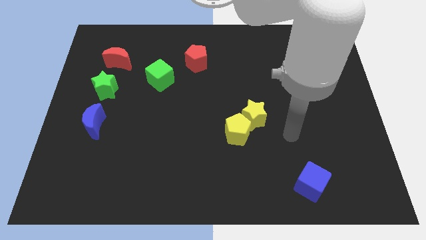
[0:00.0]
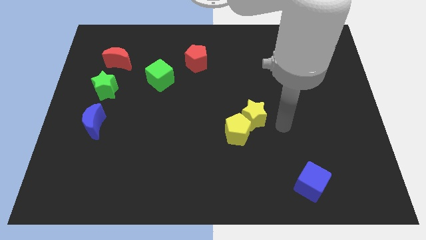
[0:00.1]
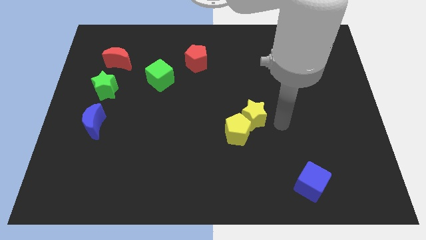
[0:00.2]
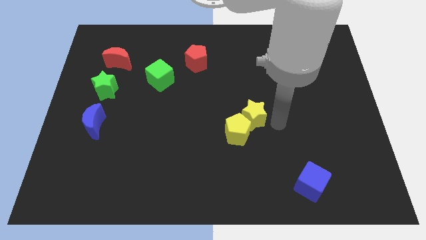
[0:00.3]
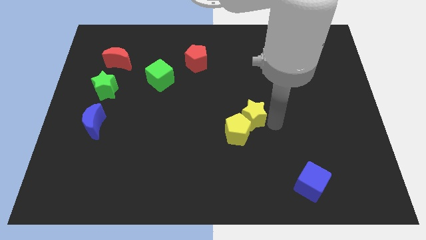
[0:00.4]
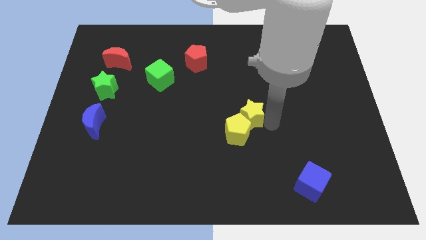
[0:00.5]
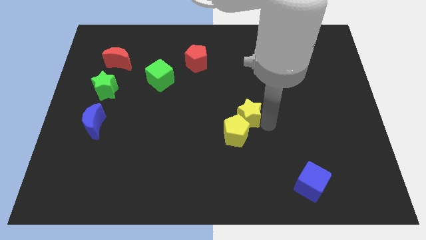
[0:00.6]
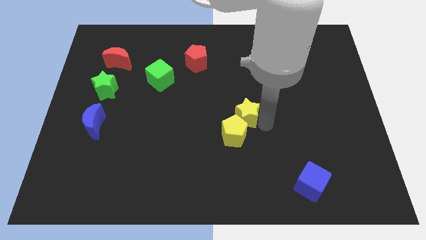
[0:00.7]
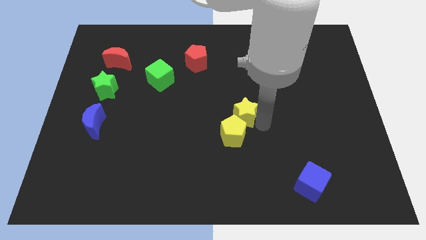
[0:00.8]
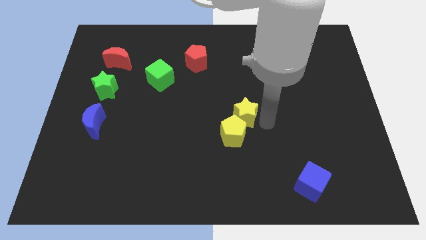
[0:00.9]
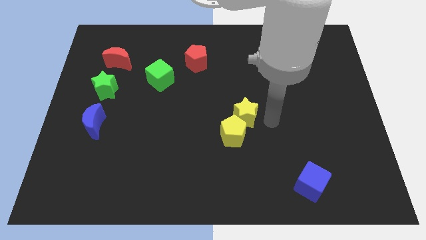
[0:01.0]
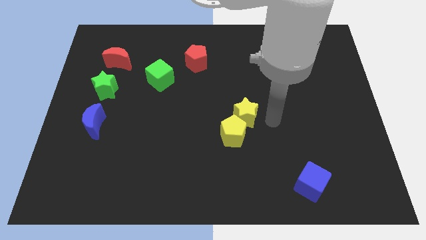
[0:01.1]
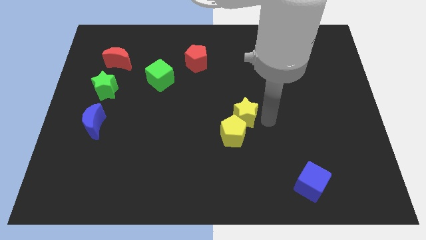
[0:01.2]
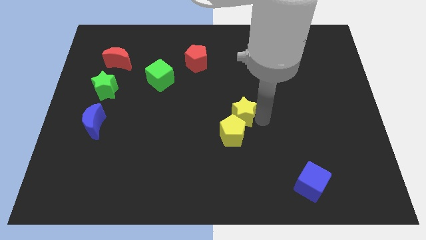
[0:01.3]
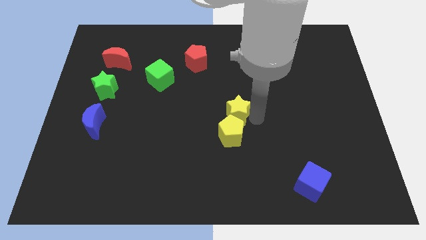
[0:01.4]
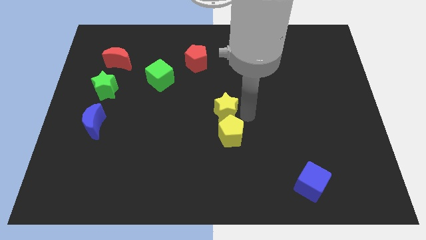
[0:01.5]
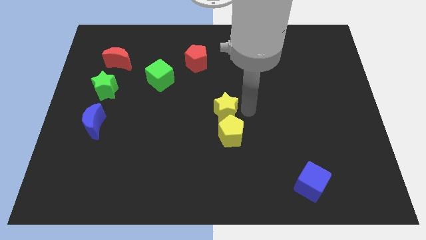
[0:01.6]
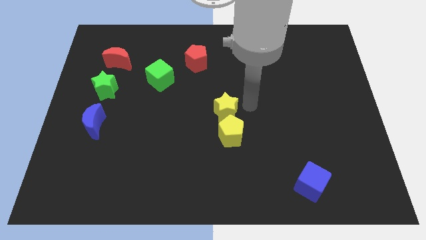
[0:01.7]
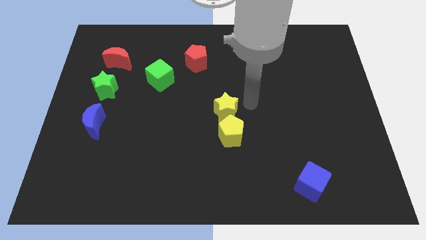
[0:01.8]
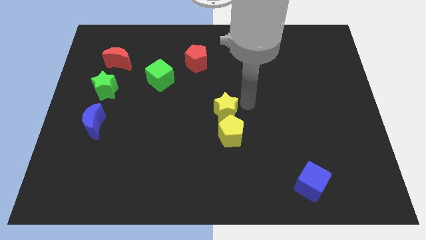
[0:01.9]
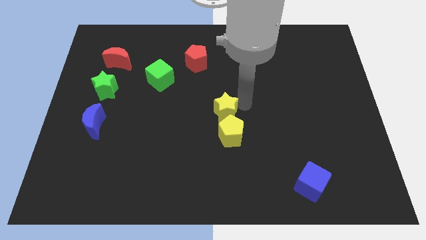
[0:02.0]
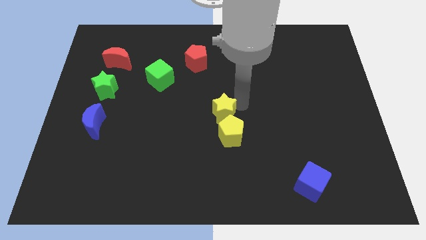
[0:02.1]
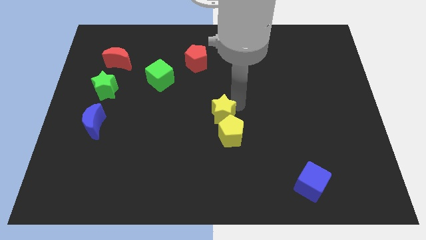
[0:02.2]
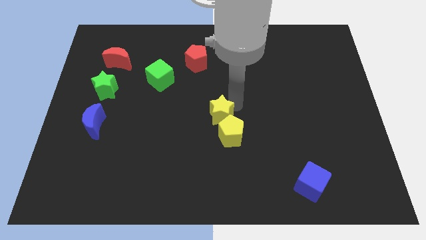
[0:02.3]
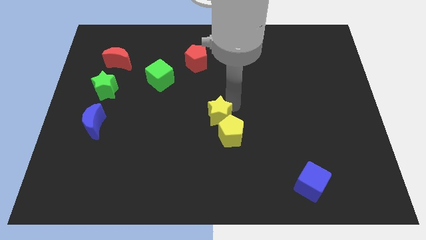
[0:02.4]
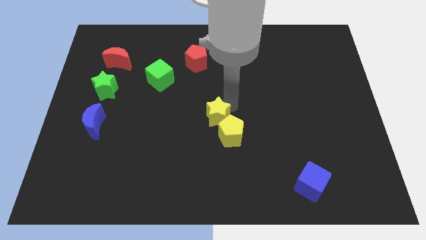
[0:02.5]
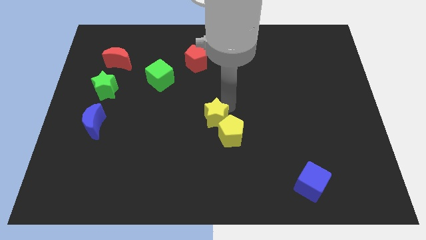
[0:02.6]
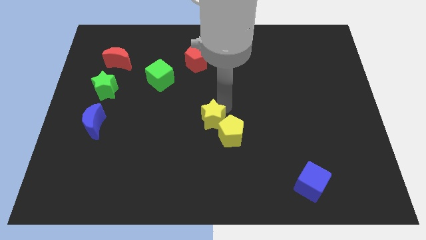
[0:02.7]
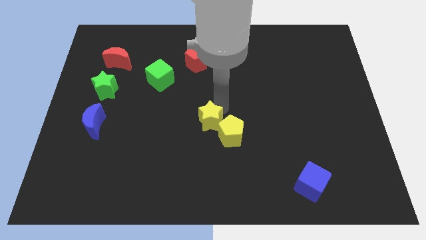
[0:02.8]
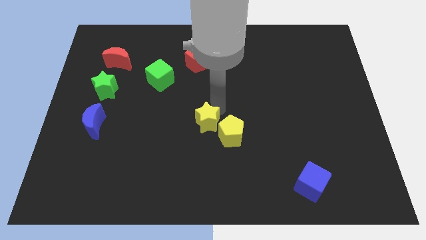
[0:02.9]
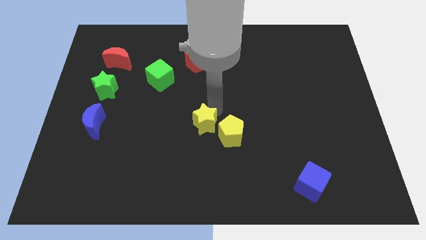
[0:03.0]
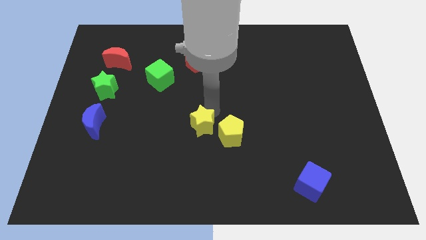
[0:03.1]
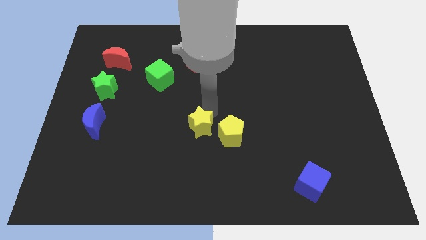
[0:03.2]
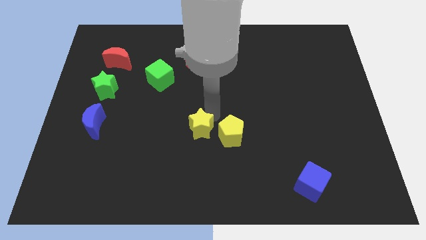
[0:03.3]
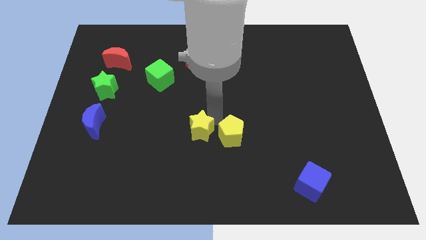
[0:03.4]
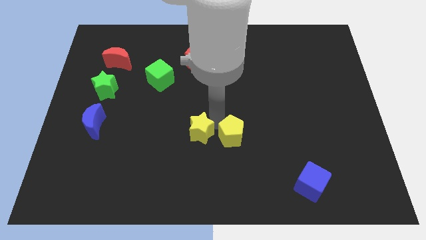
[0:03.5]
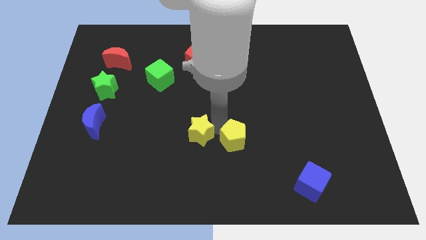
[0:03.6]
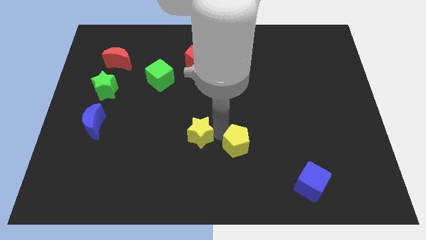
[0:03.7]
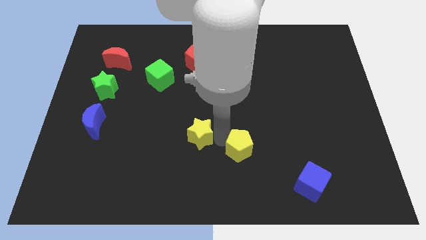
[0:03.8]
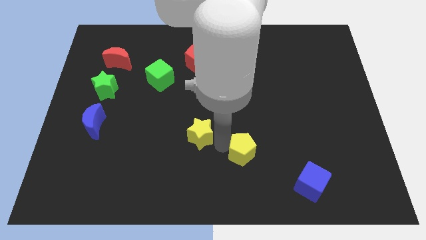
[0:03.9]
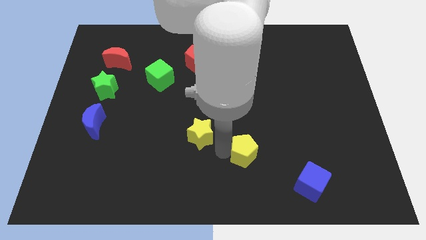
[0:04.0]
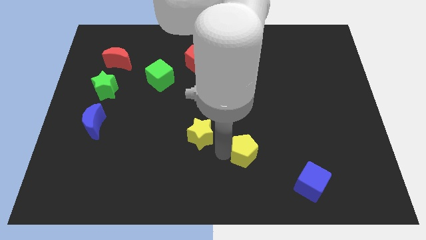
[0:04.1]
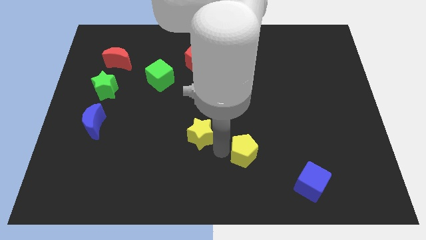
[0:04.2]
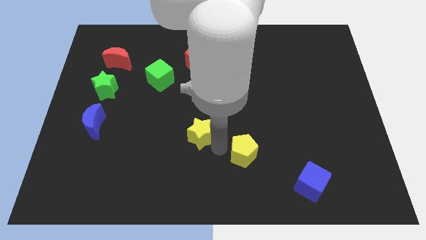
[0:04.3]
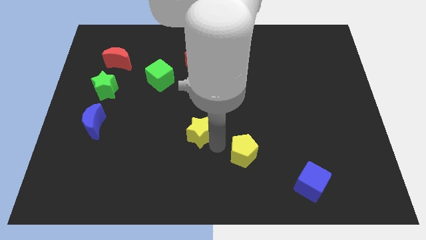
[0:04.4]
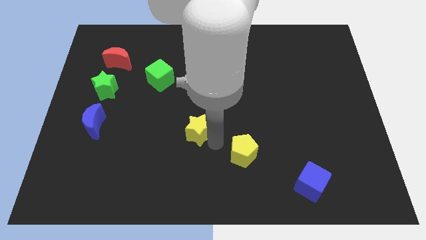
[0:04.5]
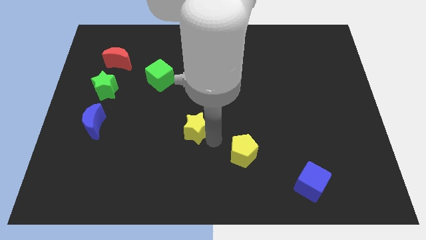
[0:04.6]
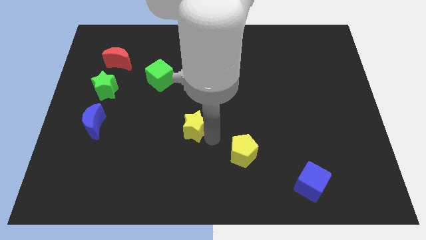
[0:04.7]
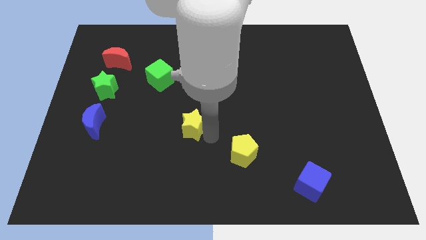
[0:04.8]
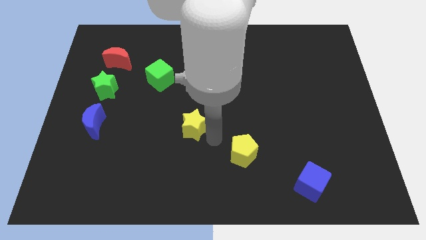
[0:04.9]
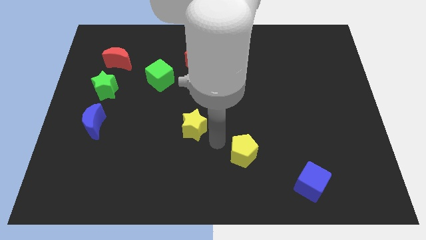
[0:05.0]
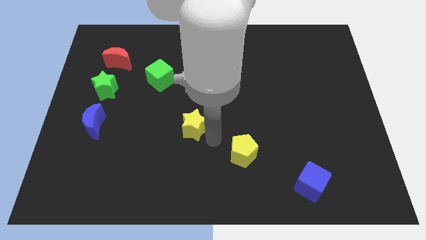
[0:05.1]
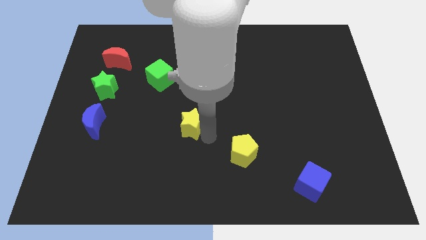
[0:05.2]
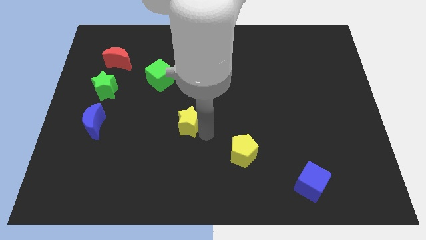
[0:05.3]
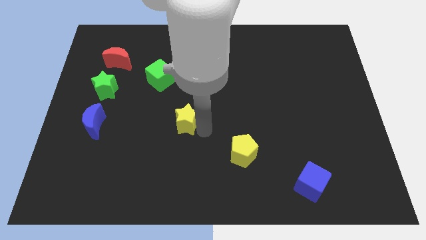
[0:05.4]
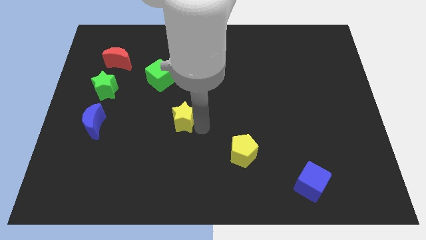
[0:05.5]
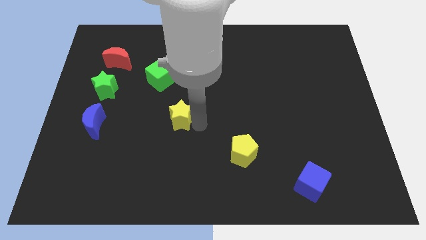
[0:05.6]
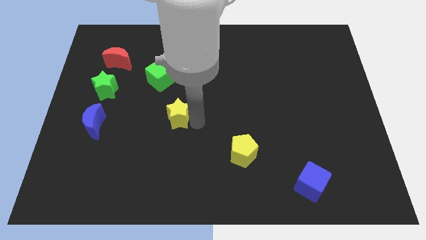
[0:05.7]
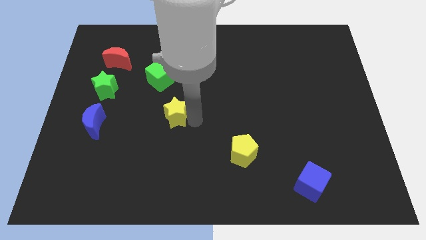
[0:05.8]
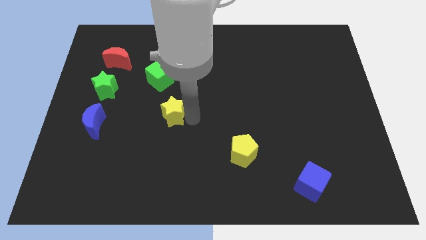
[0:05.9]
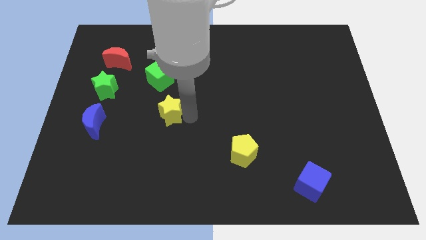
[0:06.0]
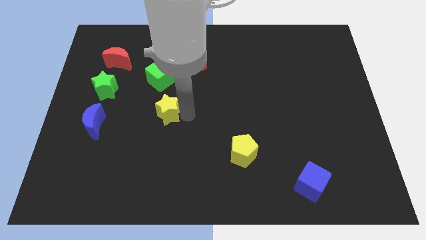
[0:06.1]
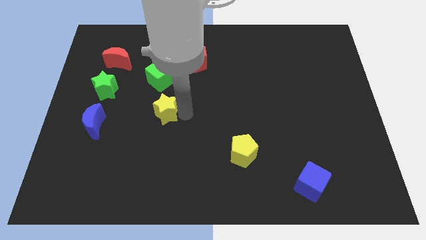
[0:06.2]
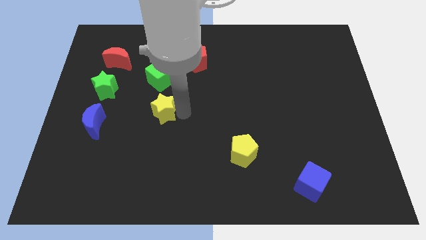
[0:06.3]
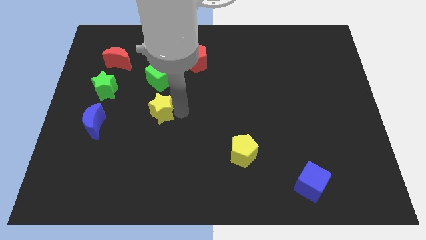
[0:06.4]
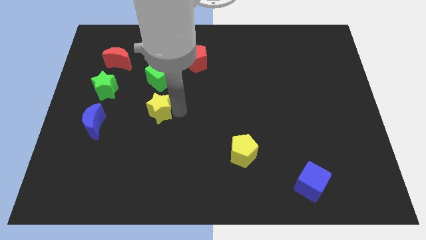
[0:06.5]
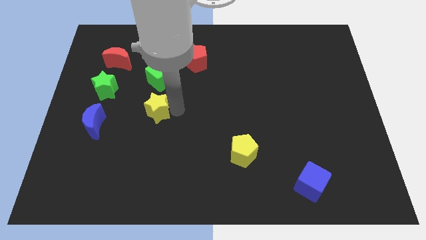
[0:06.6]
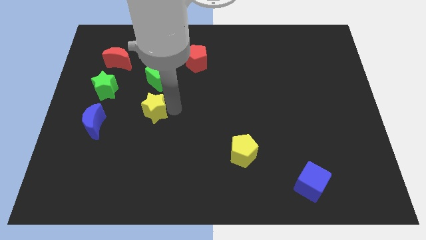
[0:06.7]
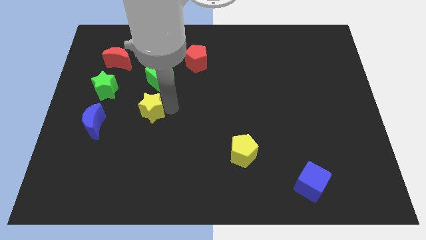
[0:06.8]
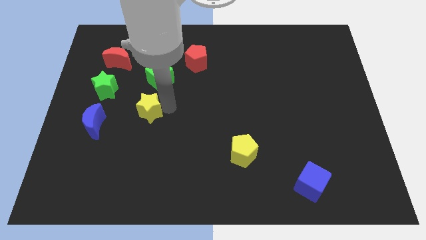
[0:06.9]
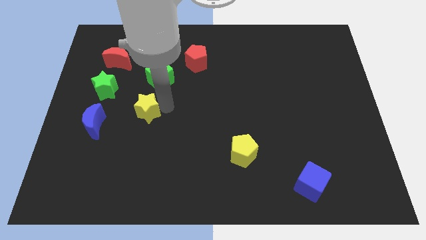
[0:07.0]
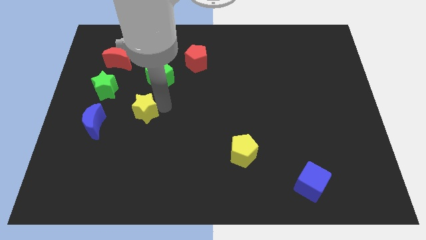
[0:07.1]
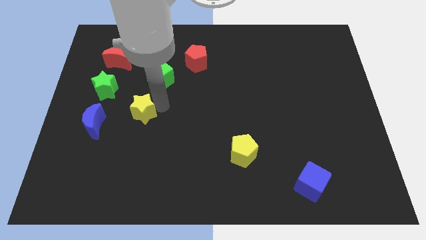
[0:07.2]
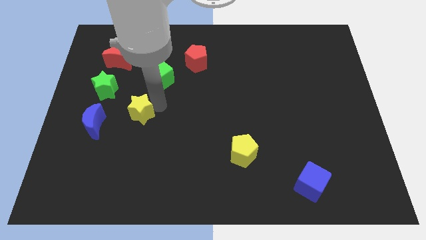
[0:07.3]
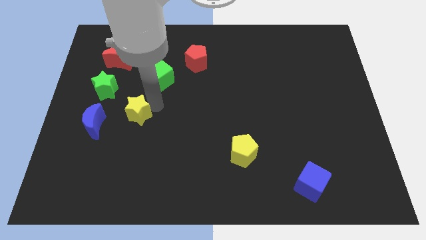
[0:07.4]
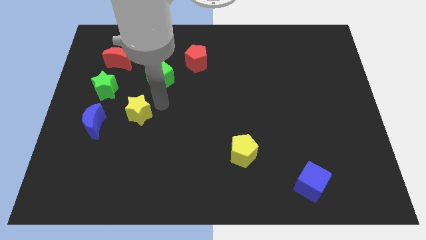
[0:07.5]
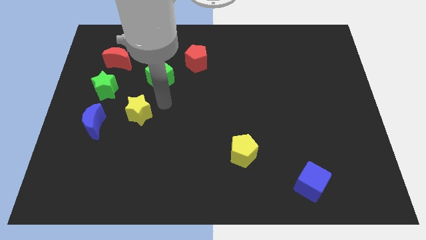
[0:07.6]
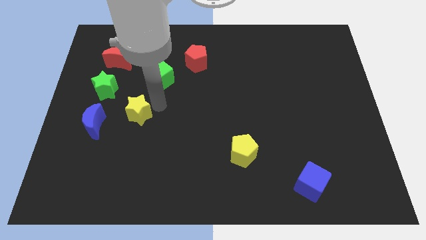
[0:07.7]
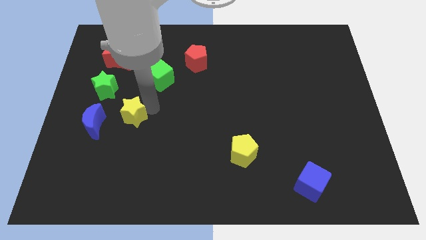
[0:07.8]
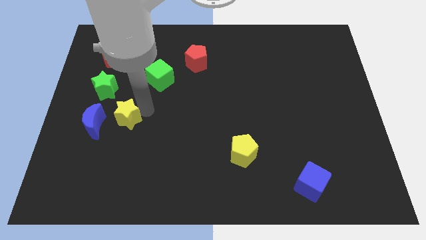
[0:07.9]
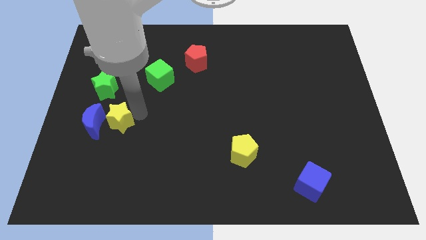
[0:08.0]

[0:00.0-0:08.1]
slide the yellow star towards the blue moon
